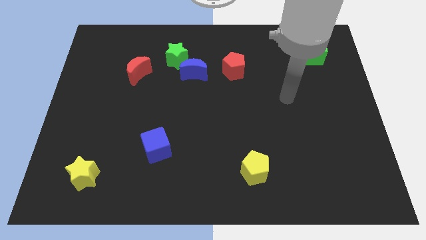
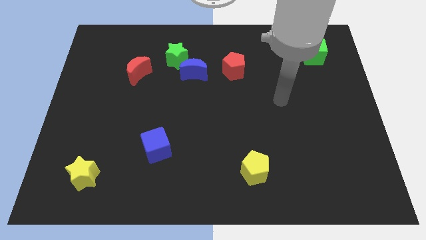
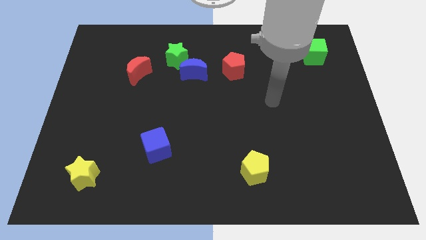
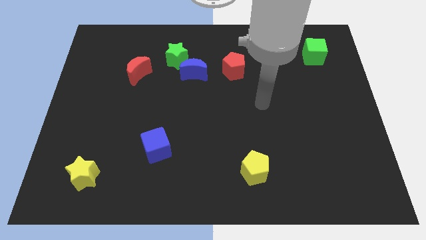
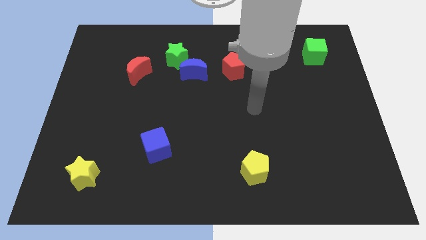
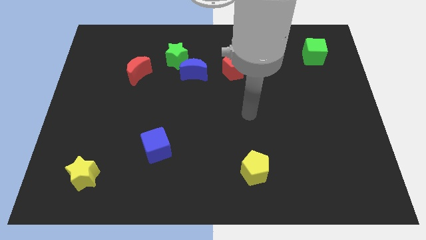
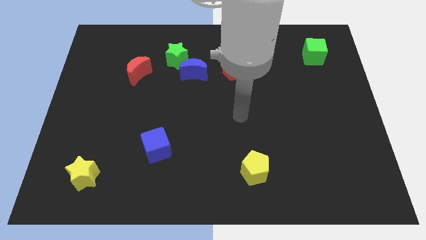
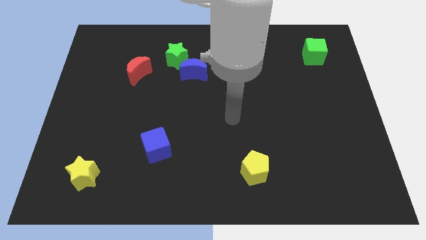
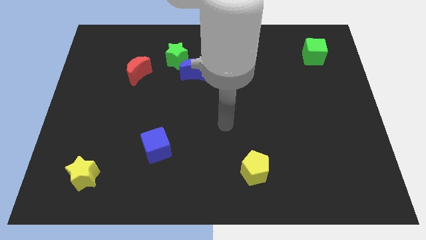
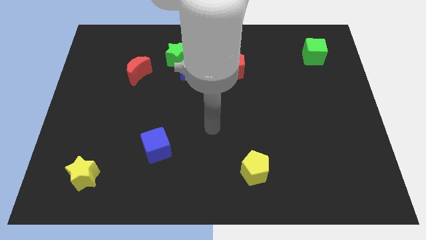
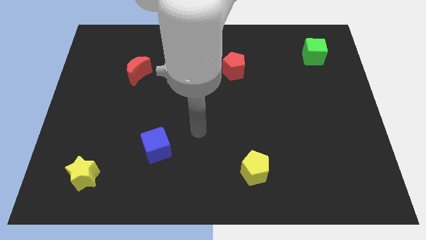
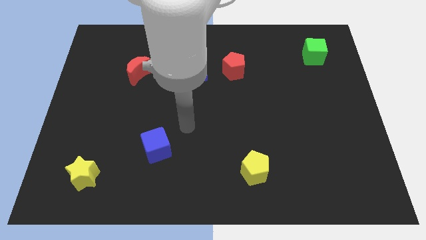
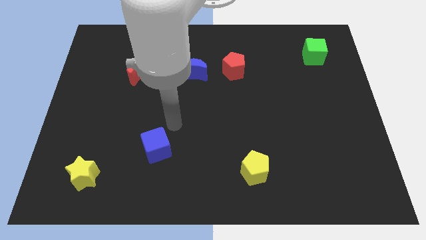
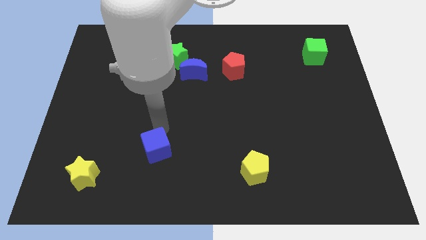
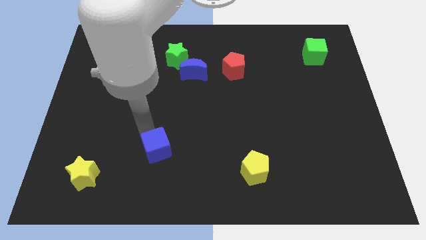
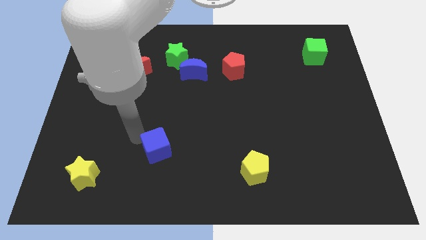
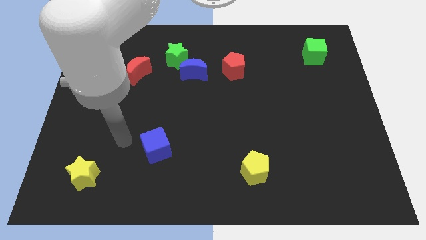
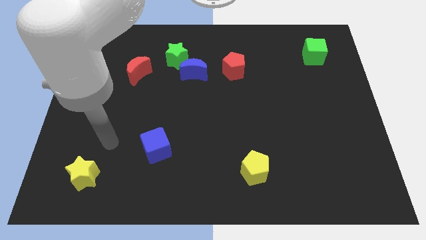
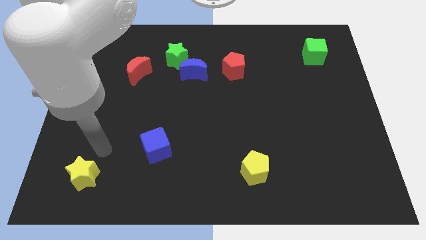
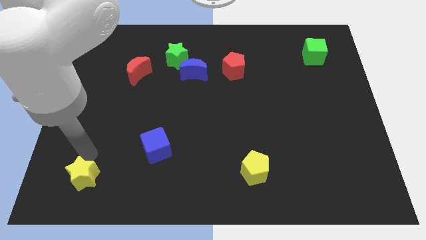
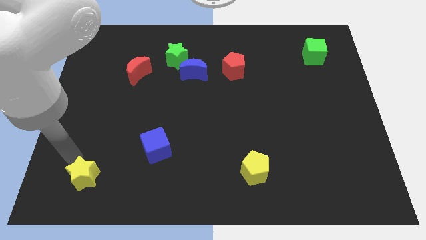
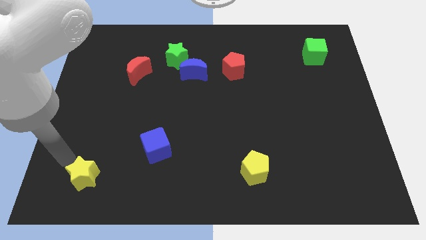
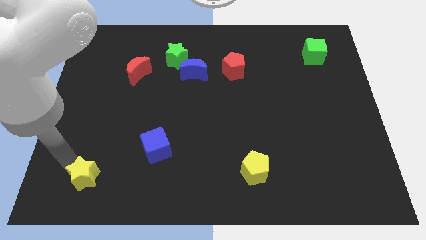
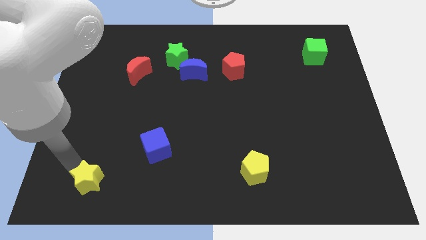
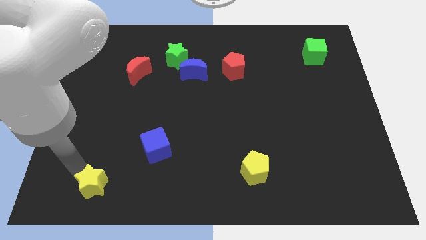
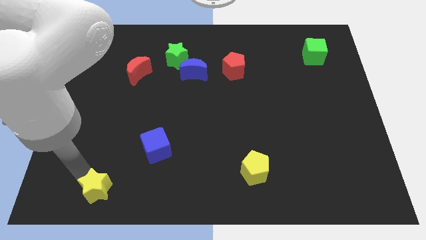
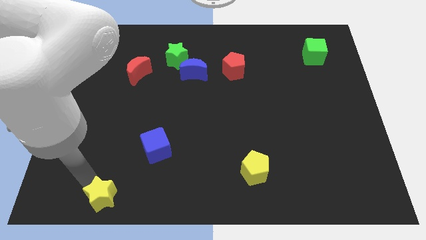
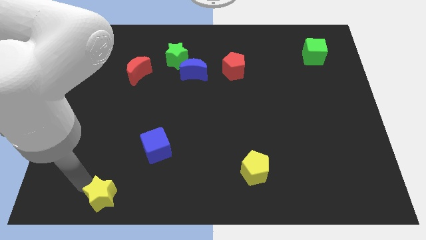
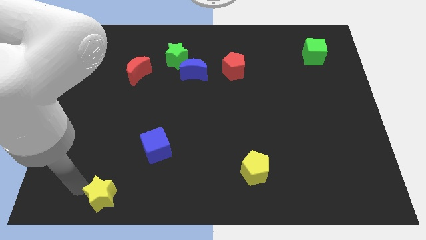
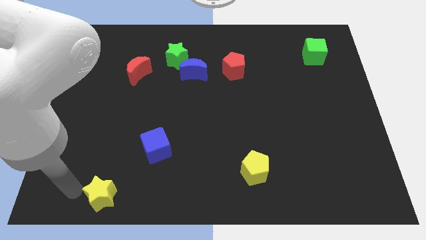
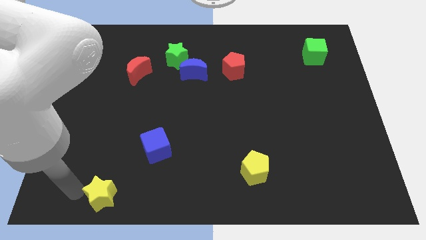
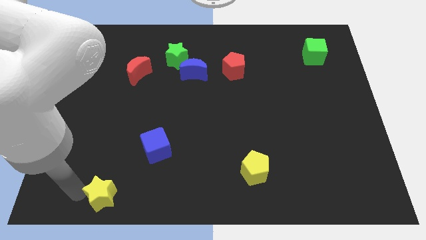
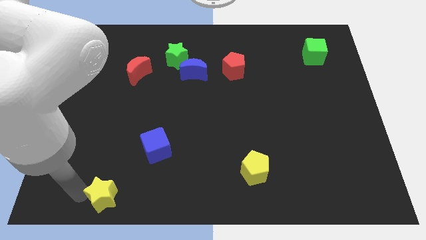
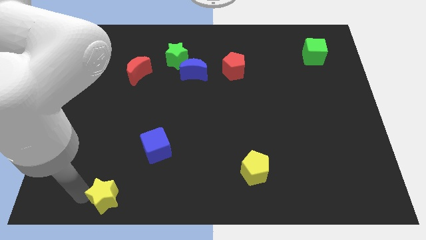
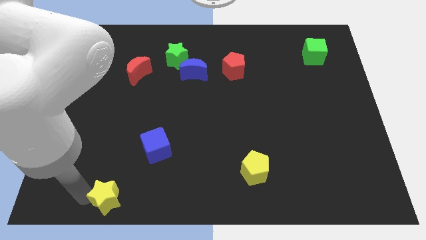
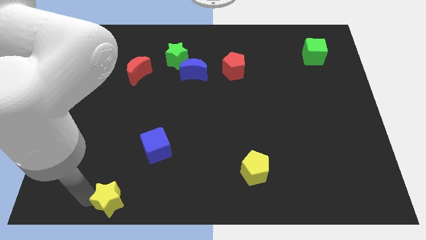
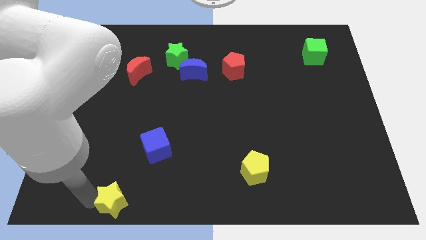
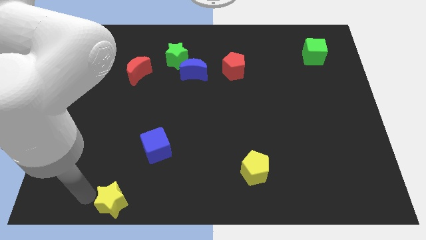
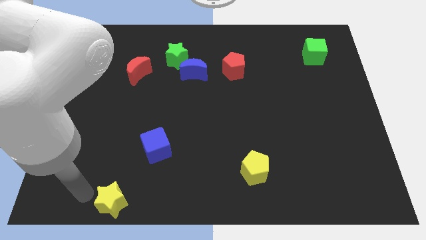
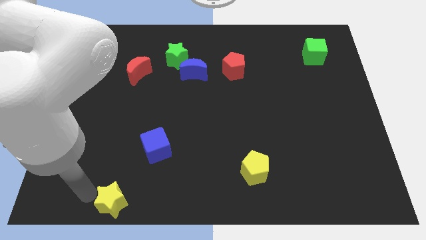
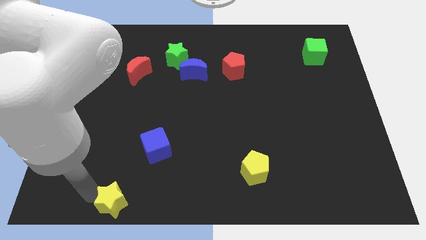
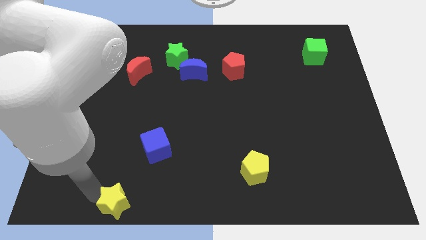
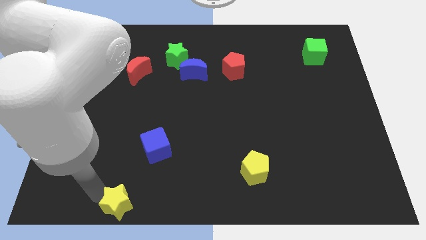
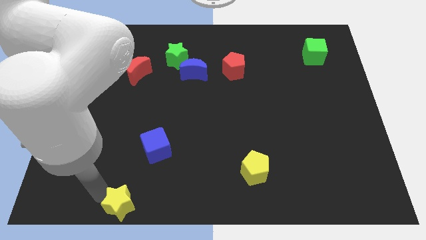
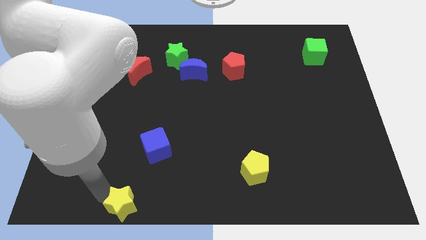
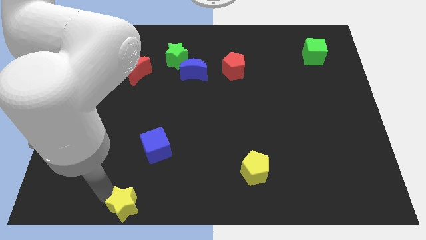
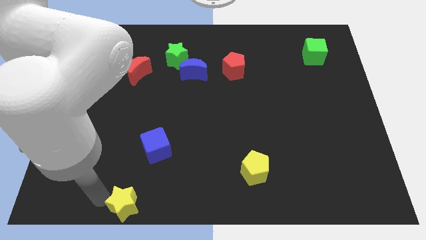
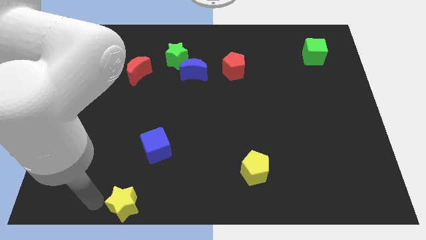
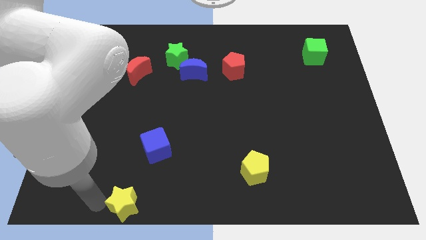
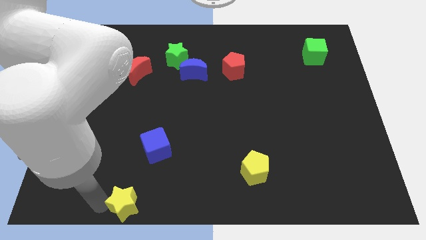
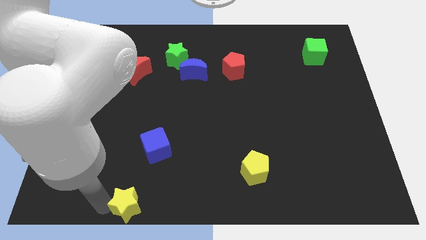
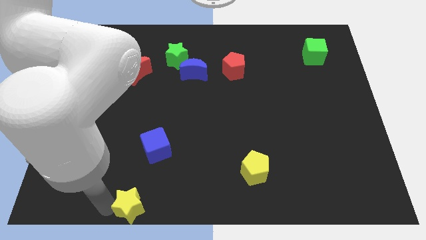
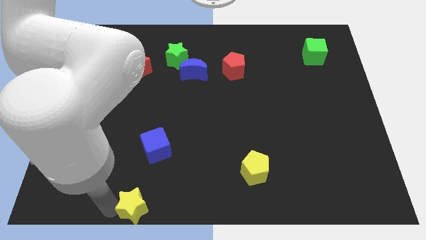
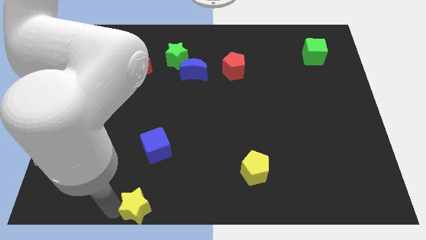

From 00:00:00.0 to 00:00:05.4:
put the yellow star to the bottom side

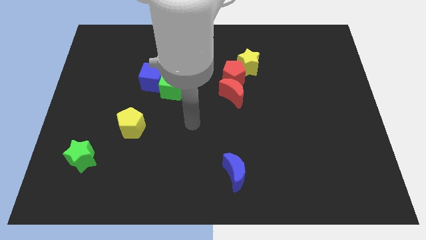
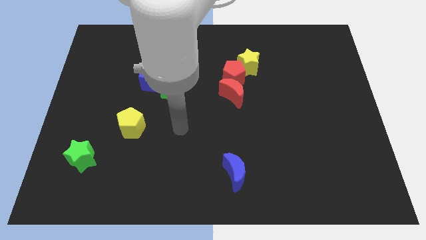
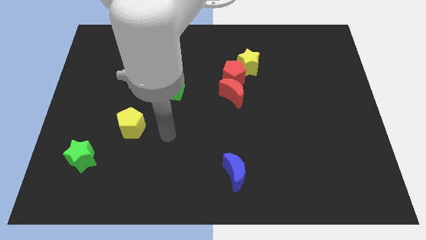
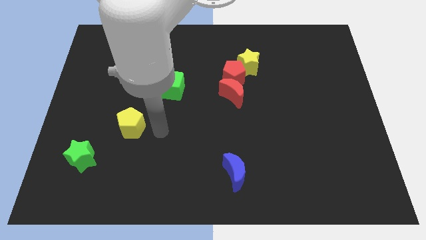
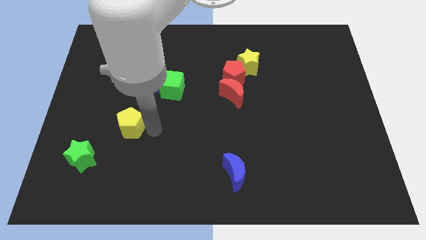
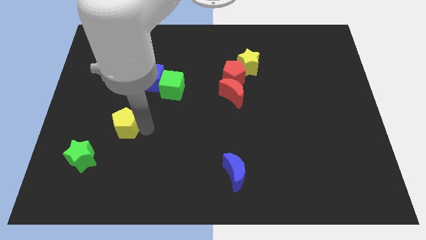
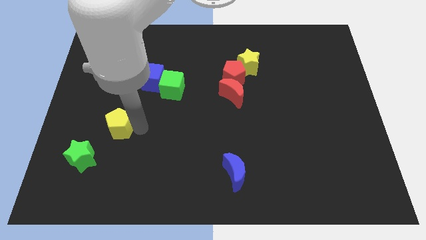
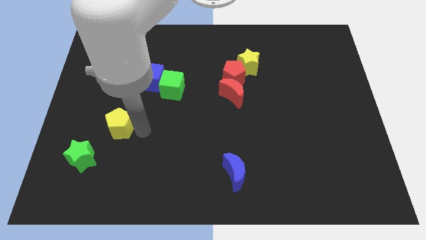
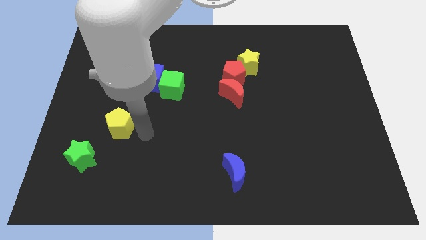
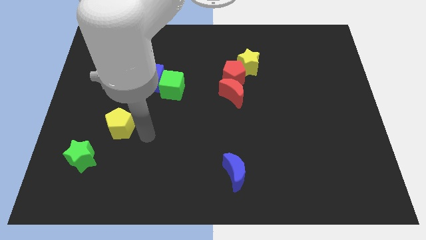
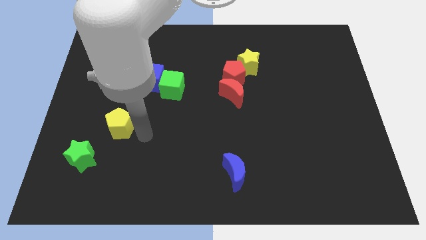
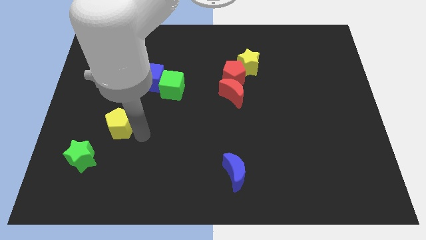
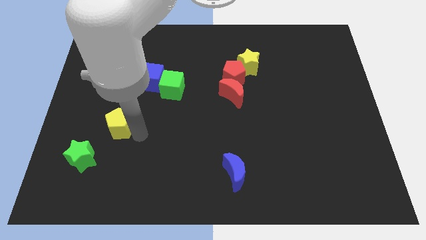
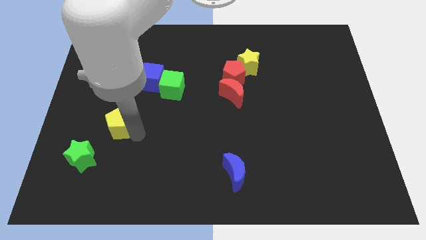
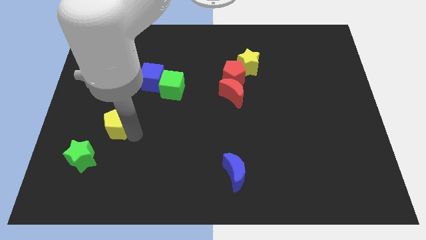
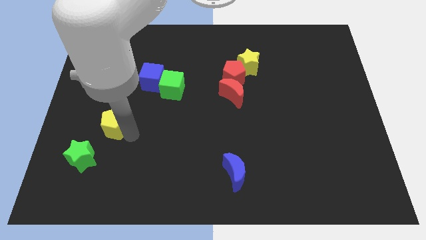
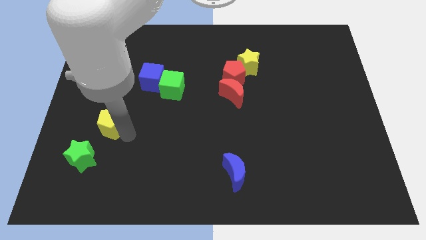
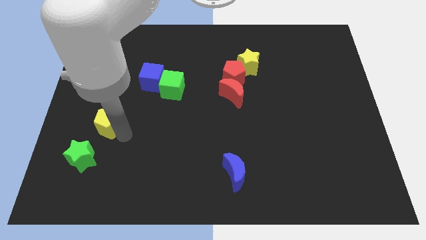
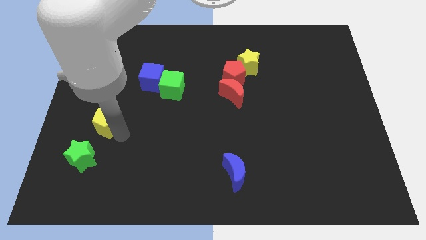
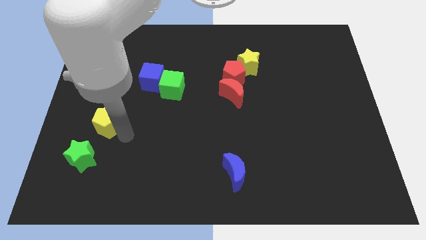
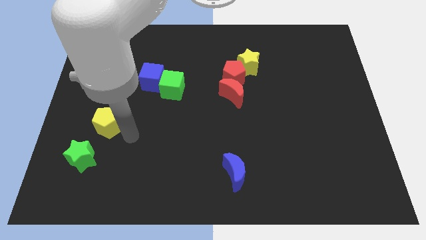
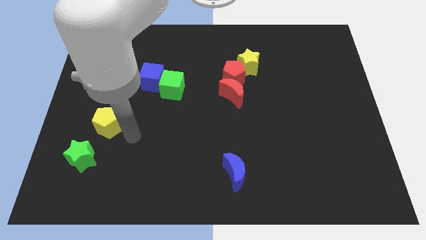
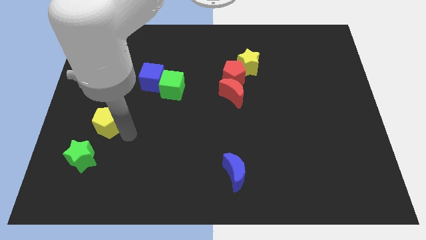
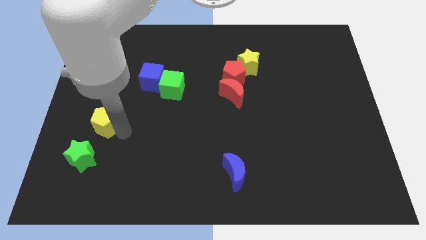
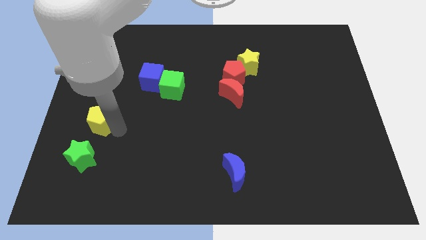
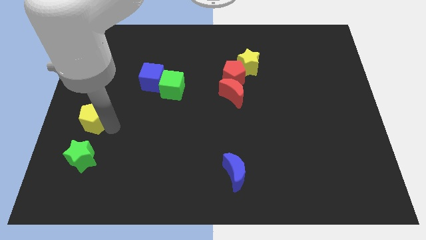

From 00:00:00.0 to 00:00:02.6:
push the yellow pentagon to the center left
